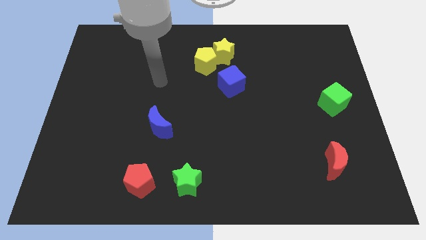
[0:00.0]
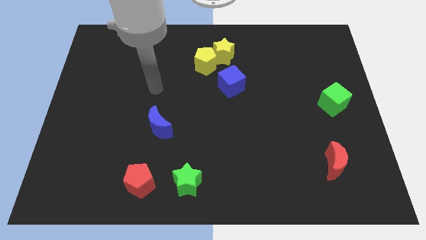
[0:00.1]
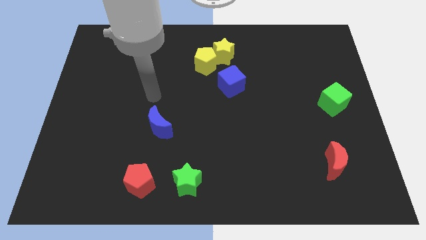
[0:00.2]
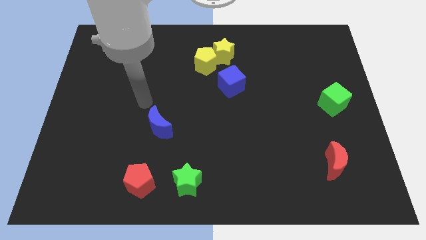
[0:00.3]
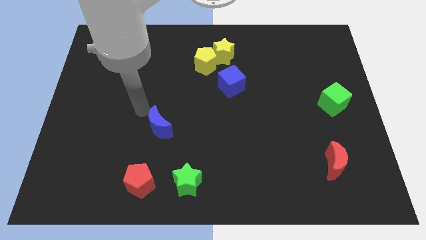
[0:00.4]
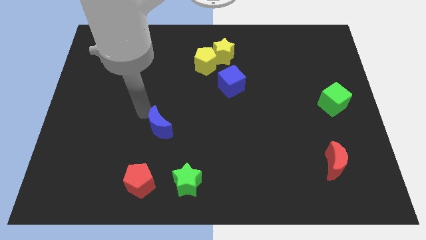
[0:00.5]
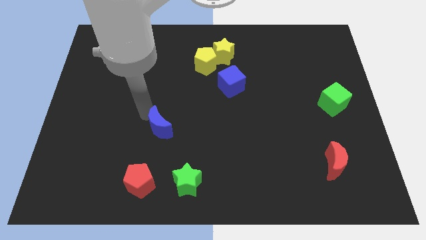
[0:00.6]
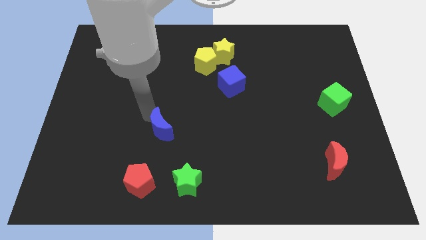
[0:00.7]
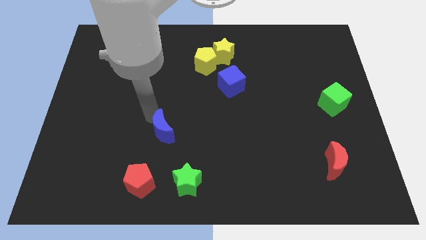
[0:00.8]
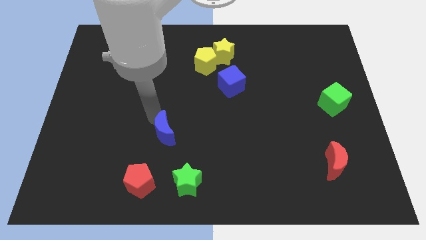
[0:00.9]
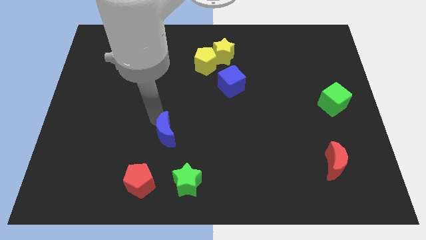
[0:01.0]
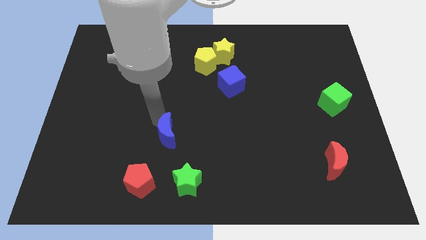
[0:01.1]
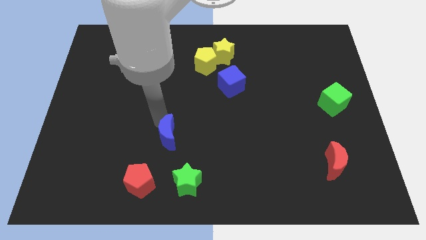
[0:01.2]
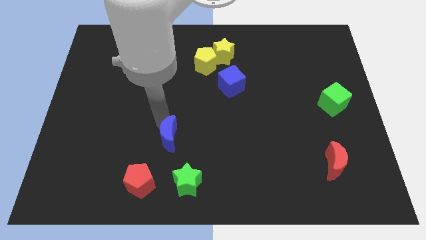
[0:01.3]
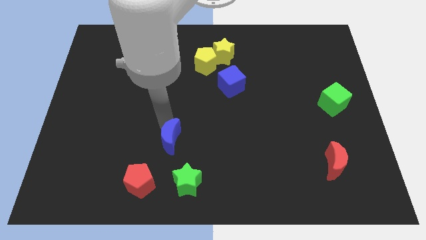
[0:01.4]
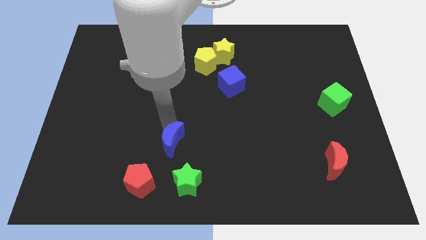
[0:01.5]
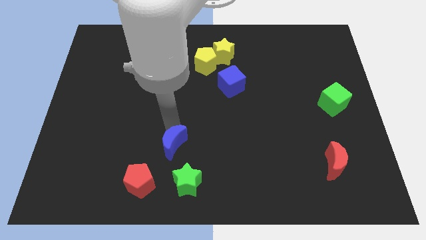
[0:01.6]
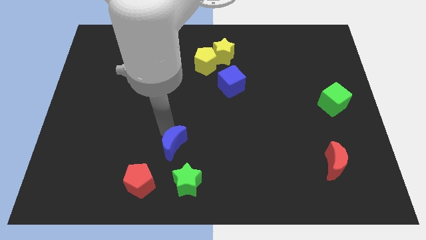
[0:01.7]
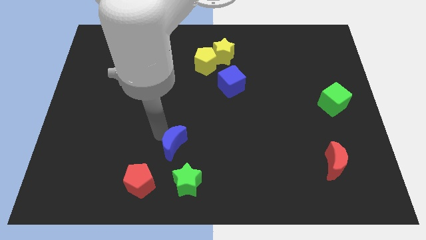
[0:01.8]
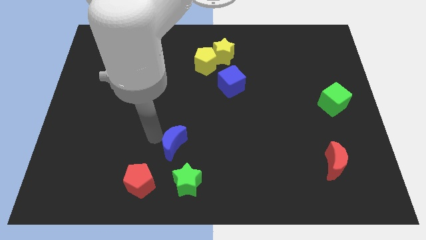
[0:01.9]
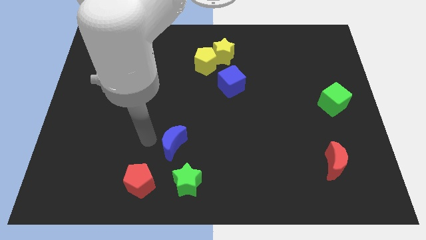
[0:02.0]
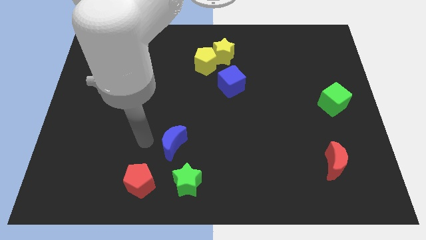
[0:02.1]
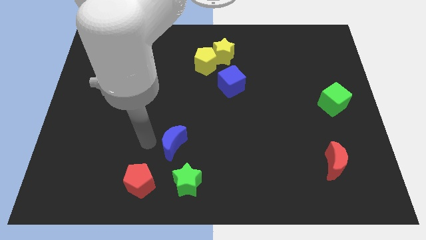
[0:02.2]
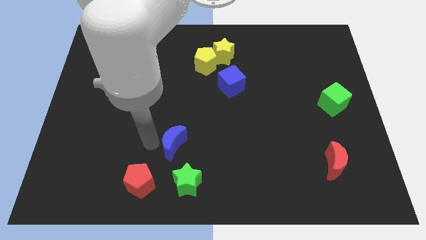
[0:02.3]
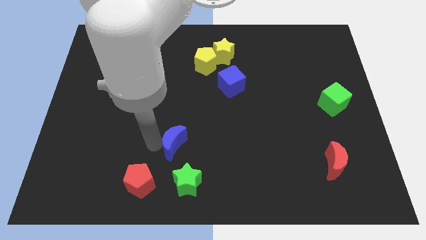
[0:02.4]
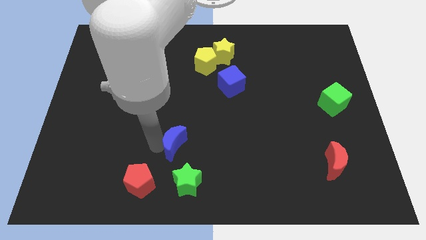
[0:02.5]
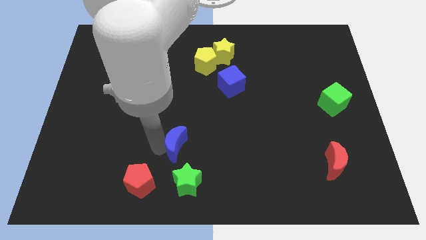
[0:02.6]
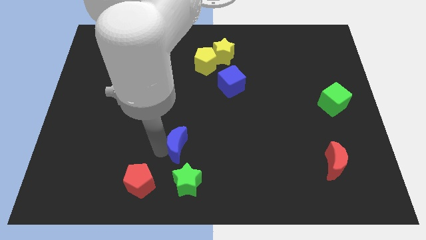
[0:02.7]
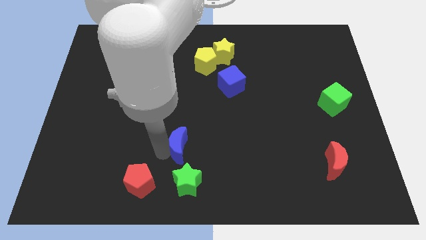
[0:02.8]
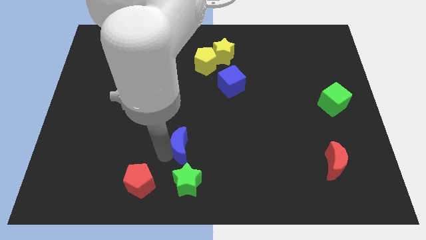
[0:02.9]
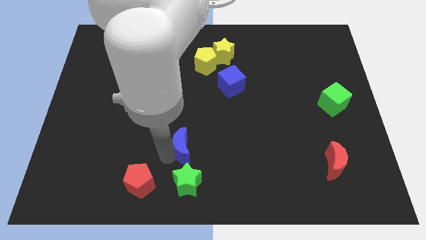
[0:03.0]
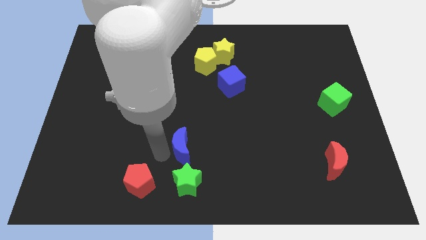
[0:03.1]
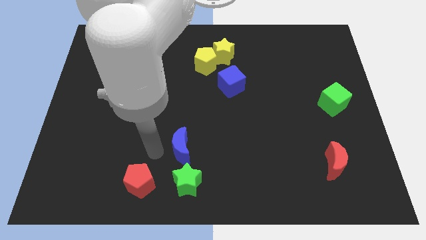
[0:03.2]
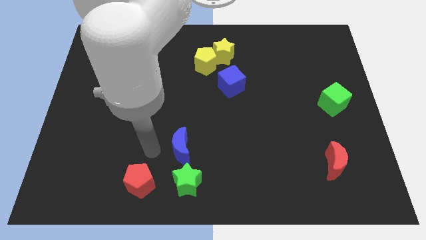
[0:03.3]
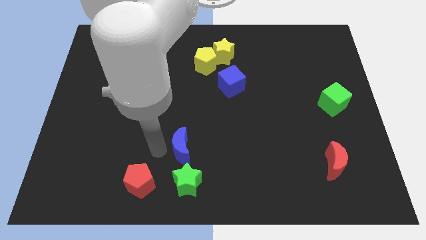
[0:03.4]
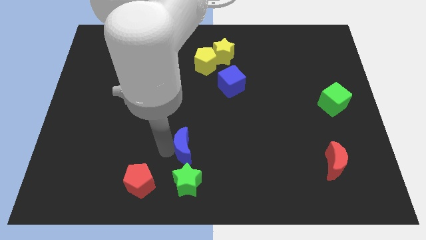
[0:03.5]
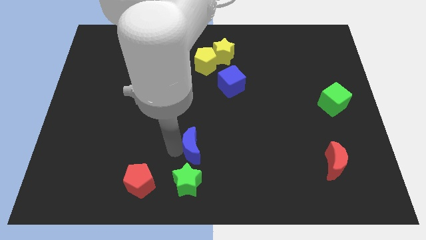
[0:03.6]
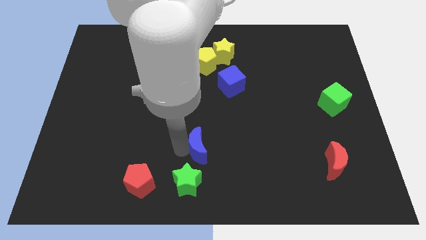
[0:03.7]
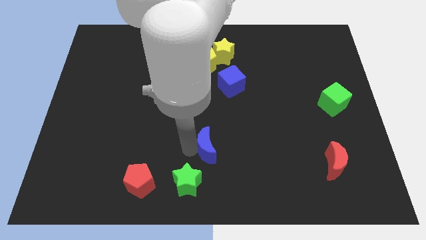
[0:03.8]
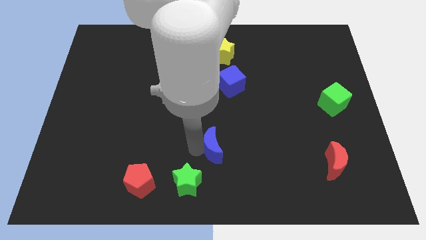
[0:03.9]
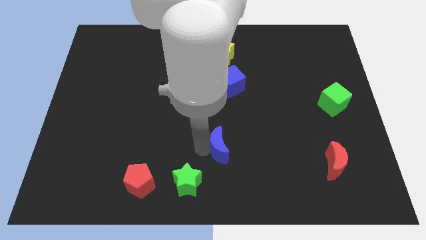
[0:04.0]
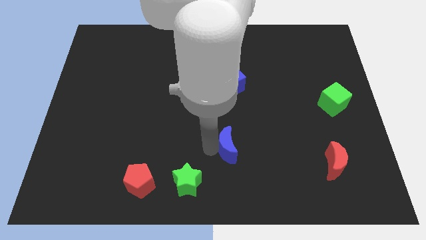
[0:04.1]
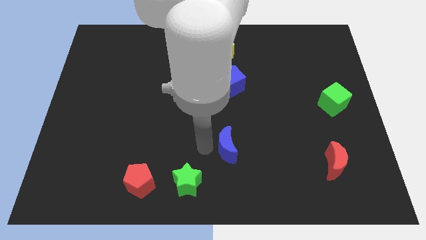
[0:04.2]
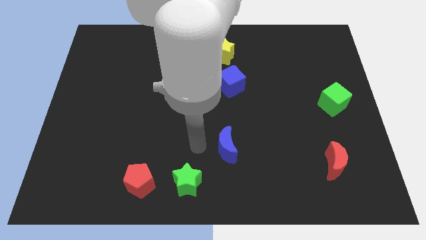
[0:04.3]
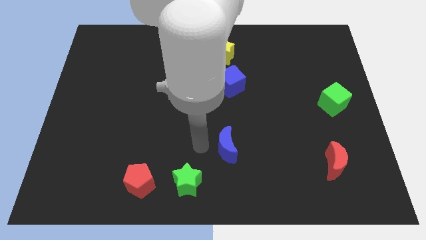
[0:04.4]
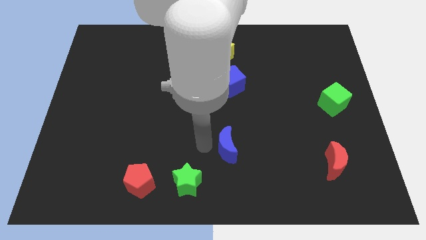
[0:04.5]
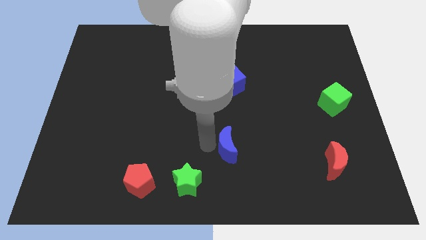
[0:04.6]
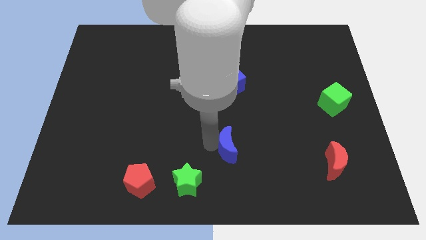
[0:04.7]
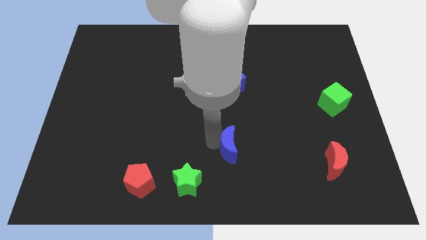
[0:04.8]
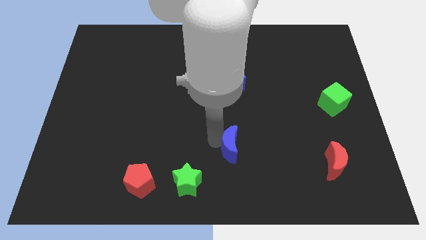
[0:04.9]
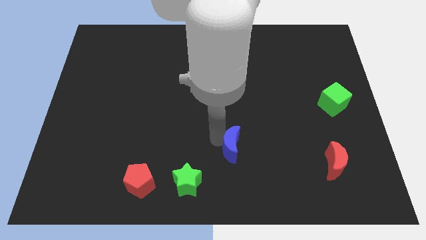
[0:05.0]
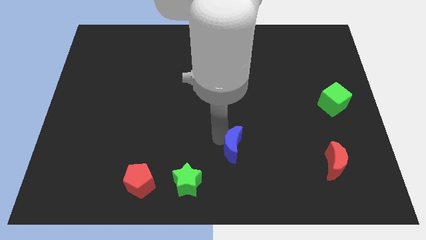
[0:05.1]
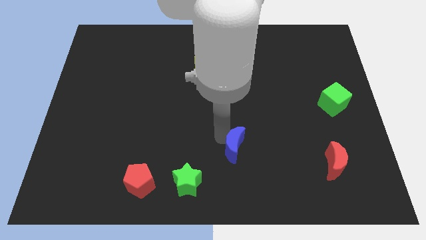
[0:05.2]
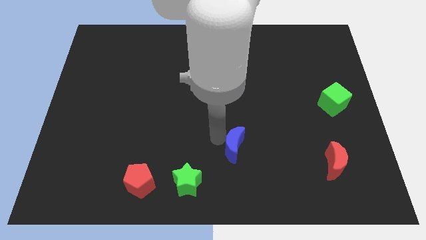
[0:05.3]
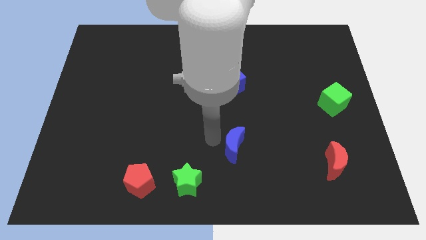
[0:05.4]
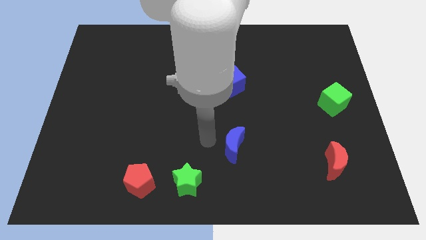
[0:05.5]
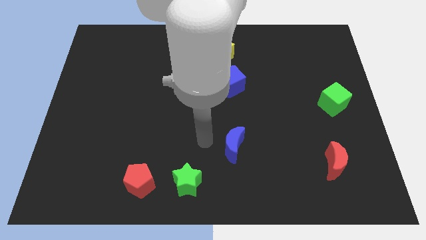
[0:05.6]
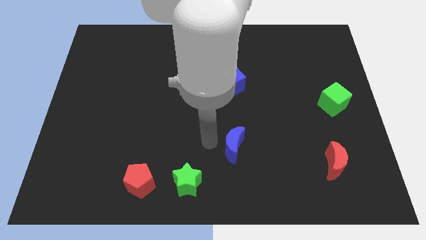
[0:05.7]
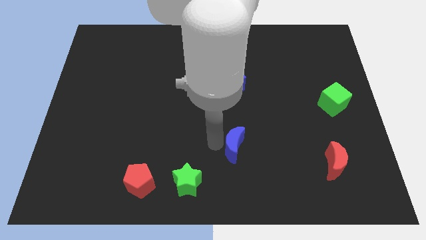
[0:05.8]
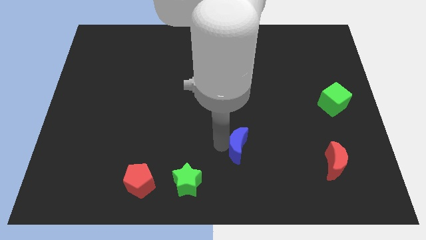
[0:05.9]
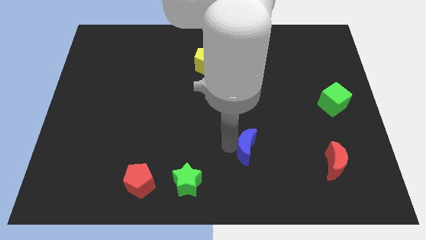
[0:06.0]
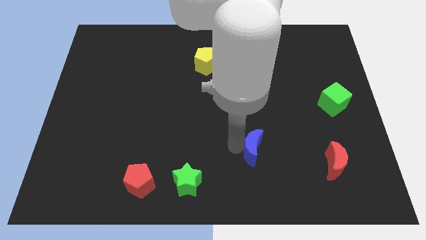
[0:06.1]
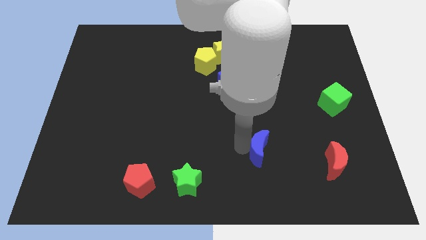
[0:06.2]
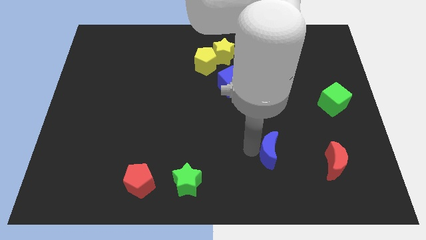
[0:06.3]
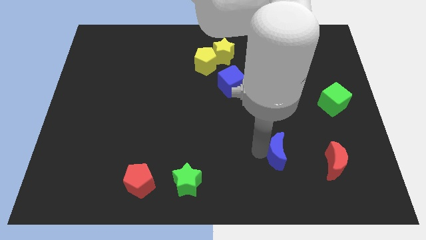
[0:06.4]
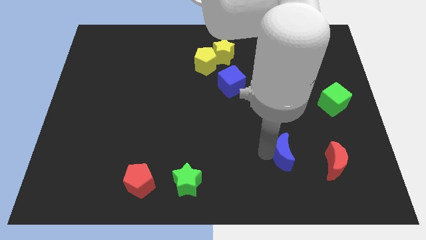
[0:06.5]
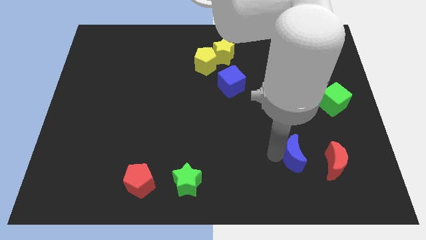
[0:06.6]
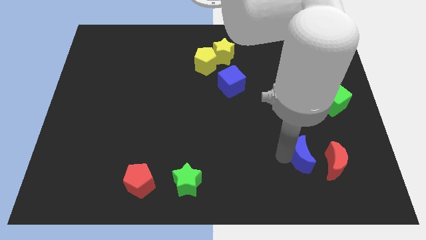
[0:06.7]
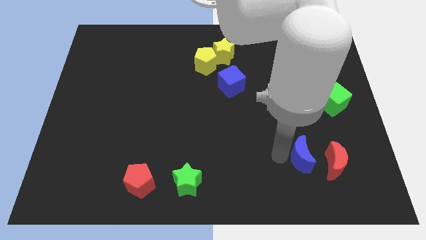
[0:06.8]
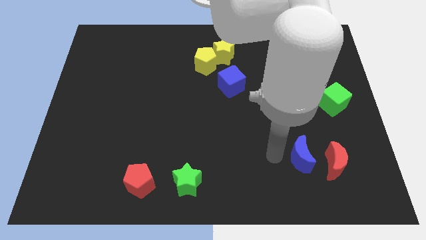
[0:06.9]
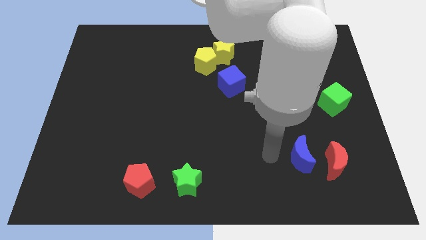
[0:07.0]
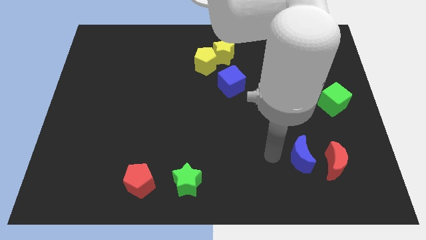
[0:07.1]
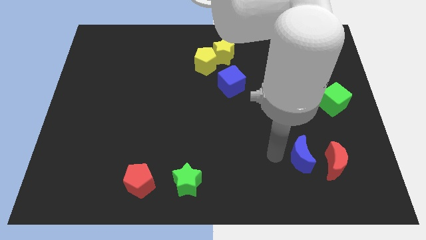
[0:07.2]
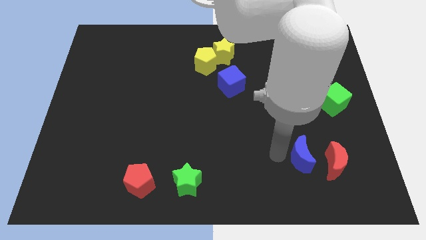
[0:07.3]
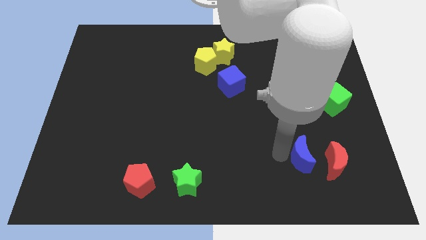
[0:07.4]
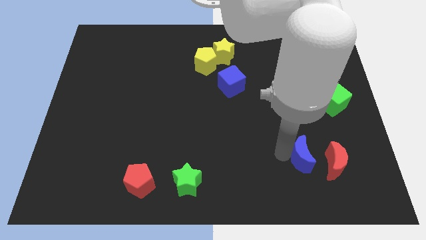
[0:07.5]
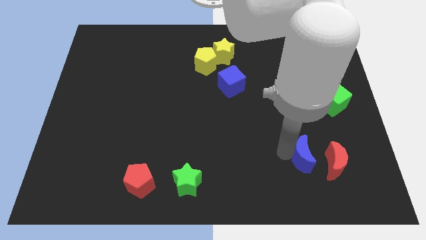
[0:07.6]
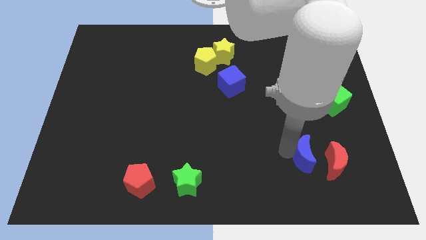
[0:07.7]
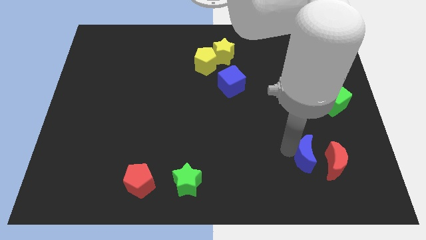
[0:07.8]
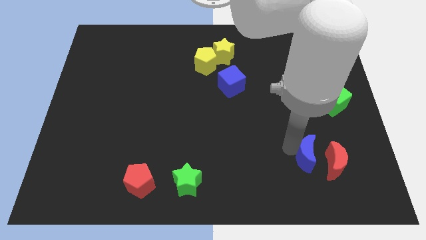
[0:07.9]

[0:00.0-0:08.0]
slide the blue moon next to the red moon
